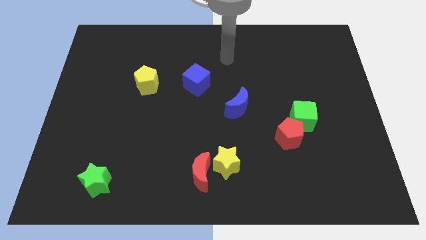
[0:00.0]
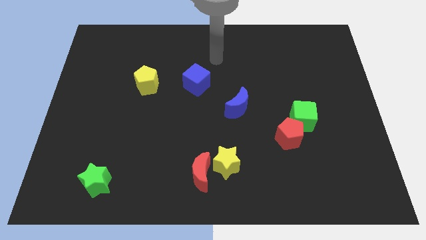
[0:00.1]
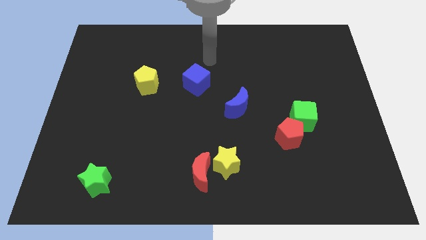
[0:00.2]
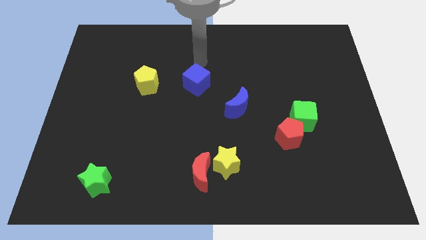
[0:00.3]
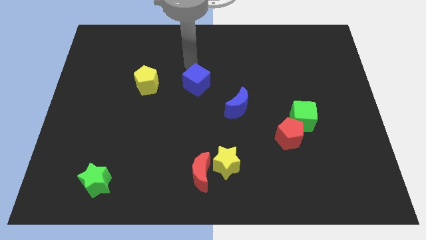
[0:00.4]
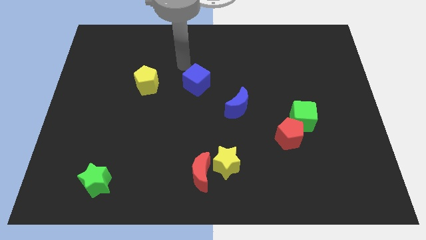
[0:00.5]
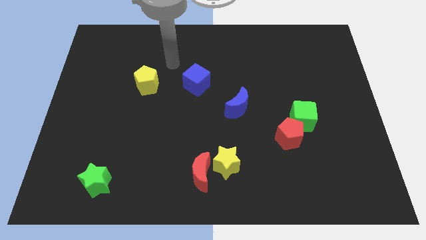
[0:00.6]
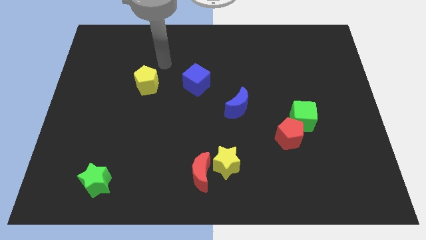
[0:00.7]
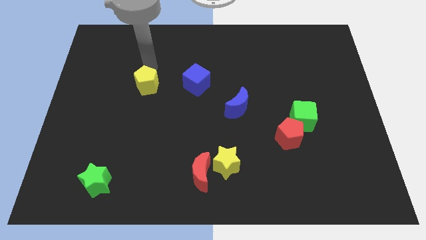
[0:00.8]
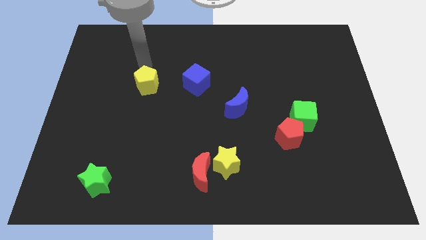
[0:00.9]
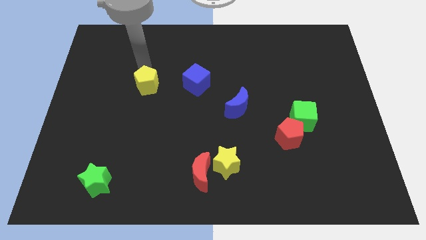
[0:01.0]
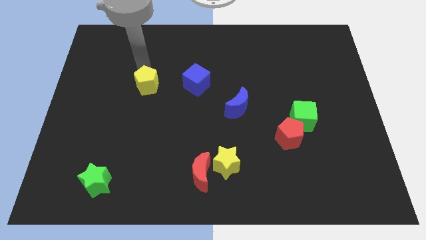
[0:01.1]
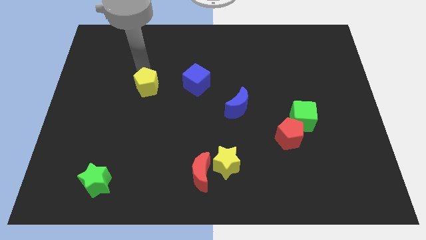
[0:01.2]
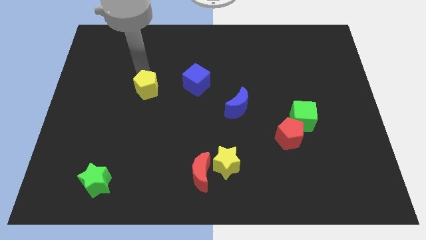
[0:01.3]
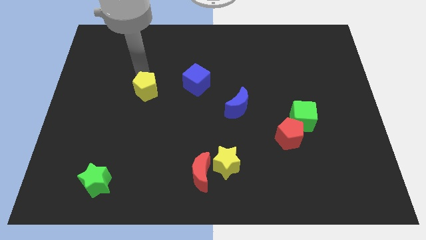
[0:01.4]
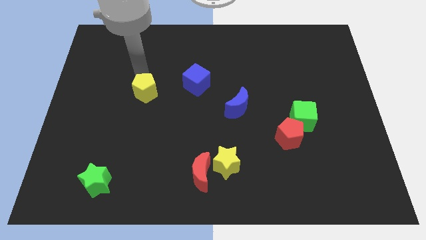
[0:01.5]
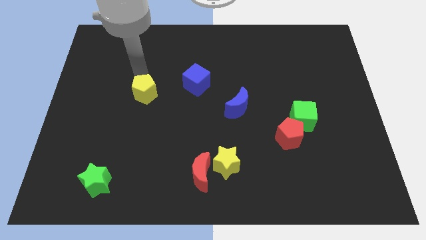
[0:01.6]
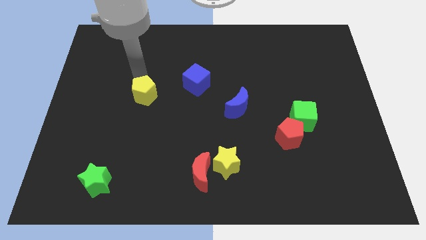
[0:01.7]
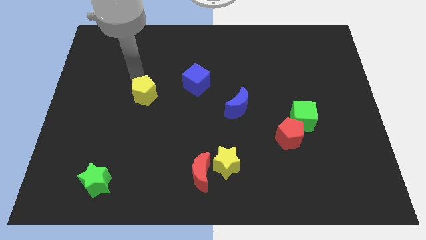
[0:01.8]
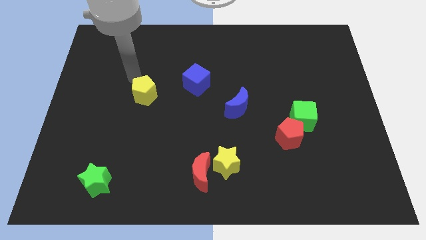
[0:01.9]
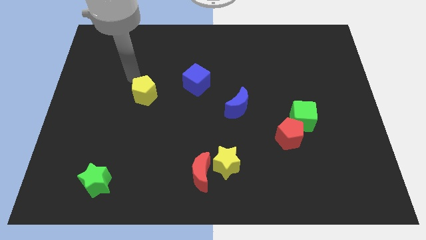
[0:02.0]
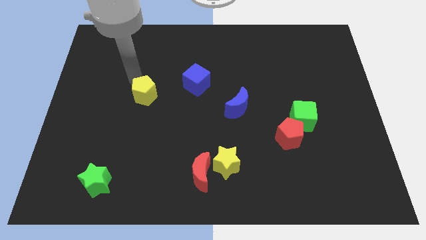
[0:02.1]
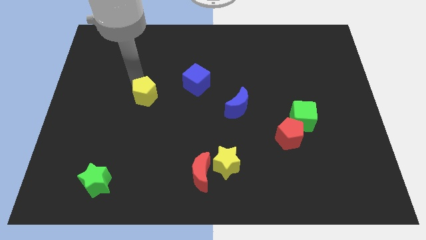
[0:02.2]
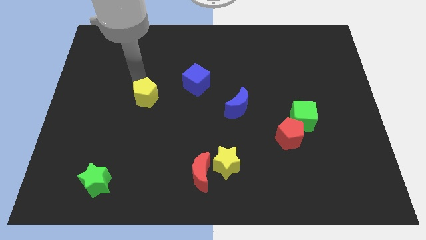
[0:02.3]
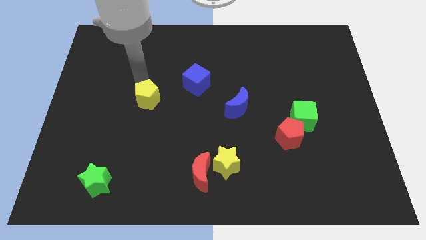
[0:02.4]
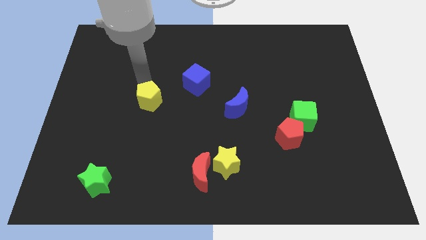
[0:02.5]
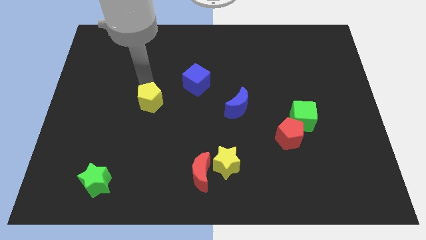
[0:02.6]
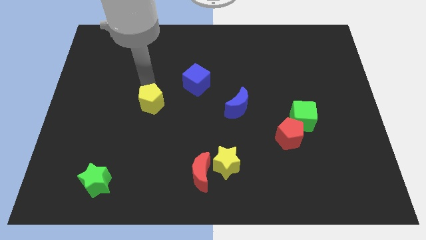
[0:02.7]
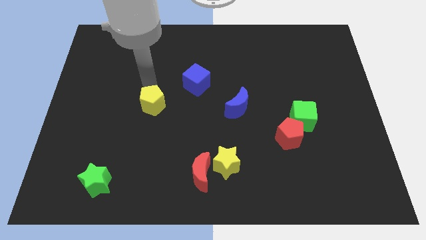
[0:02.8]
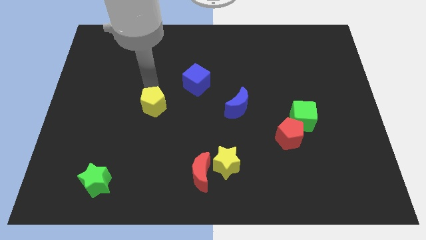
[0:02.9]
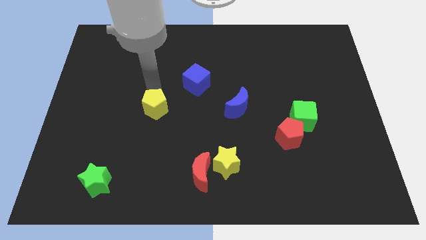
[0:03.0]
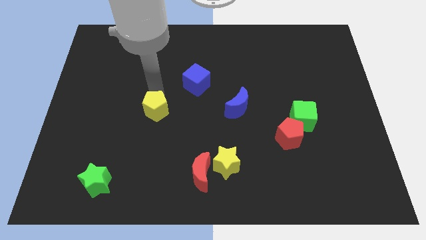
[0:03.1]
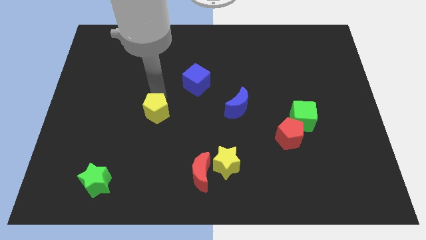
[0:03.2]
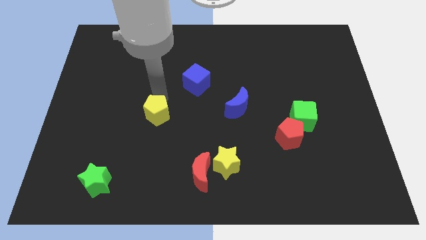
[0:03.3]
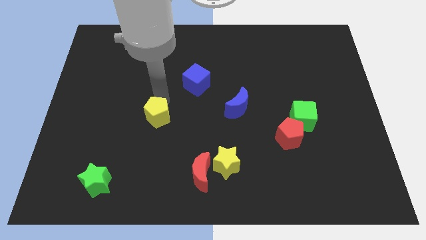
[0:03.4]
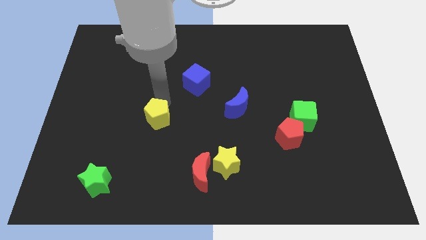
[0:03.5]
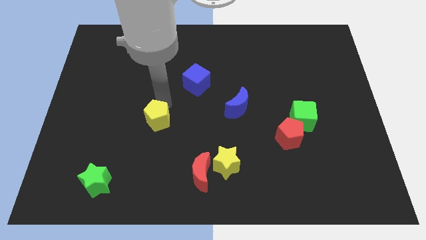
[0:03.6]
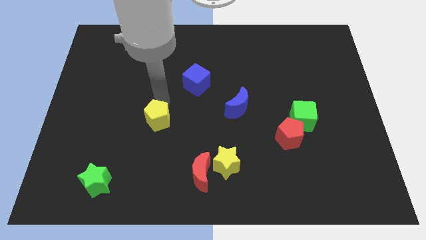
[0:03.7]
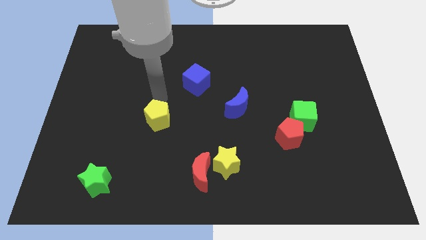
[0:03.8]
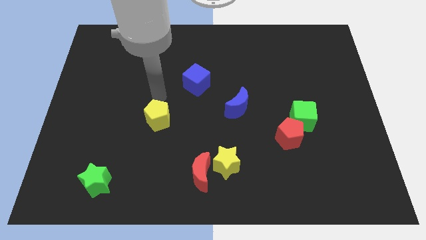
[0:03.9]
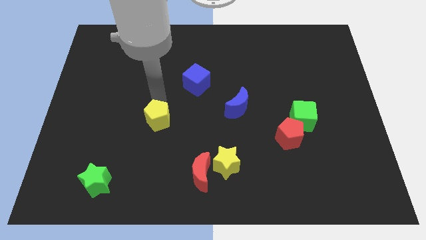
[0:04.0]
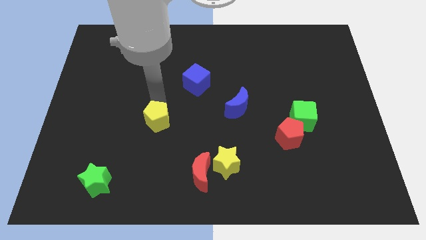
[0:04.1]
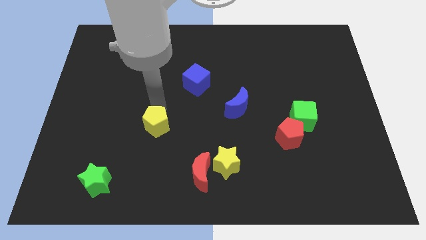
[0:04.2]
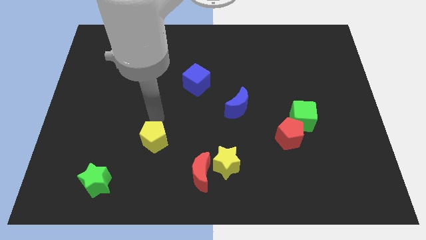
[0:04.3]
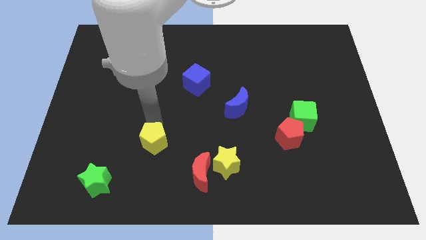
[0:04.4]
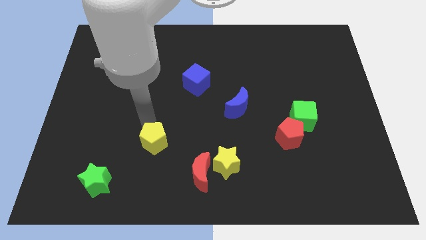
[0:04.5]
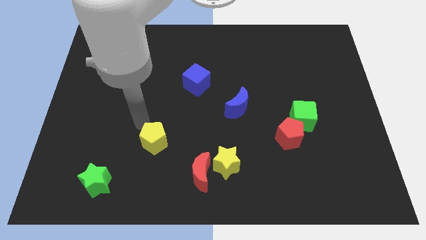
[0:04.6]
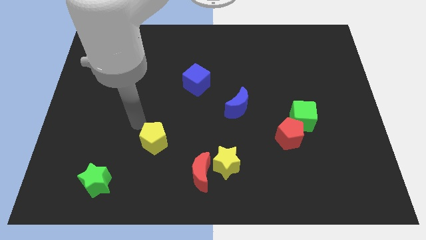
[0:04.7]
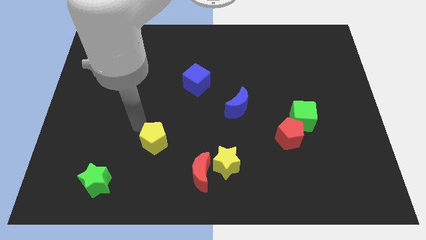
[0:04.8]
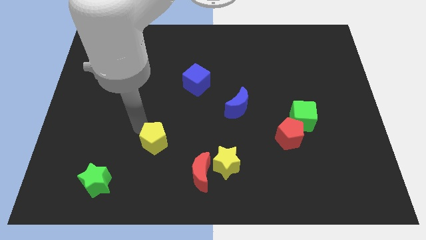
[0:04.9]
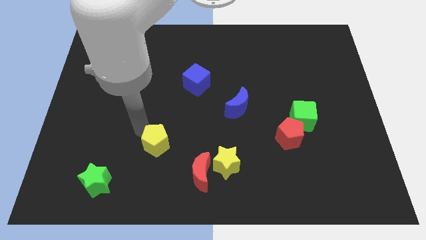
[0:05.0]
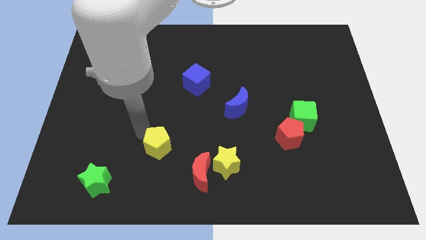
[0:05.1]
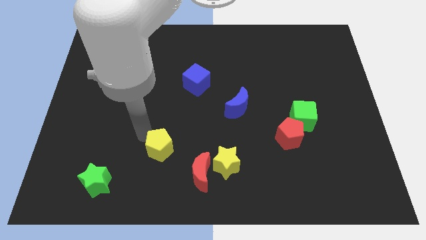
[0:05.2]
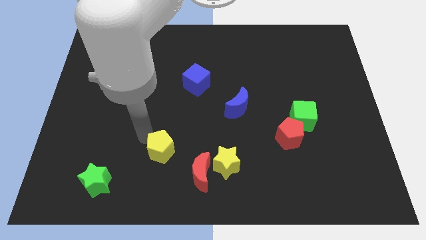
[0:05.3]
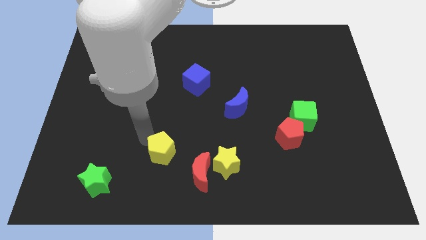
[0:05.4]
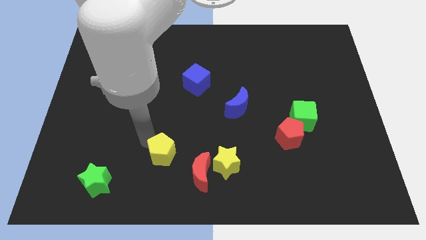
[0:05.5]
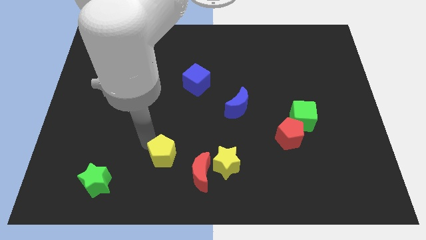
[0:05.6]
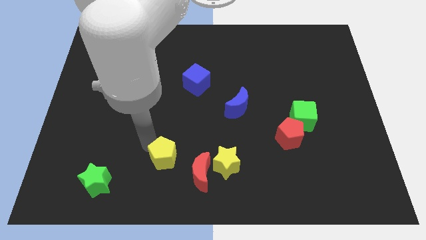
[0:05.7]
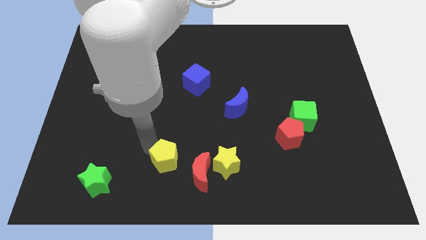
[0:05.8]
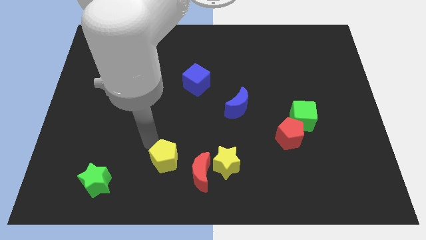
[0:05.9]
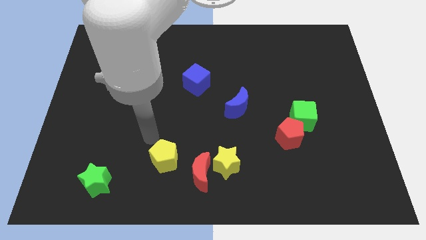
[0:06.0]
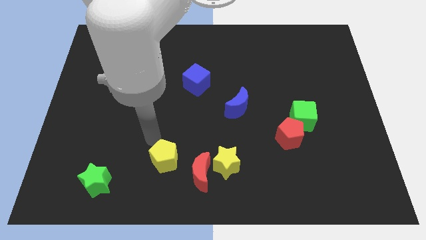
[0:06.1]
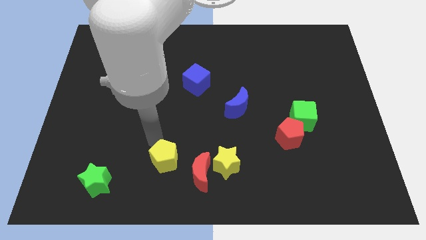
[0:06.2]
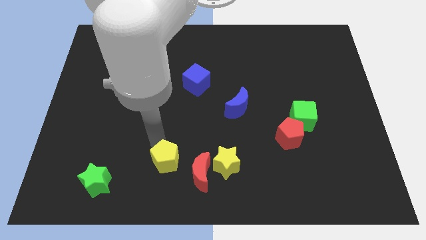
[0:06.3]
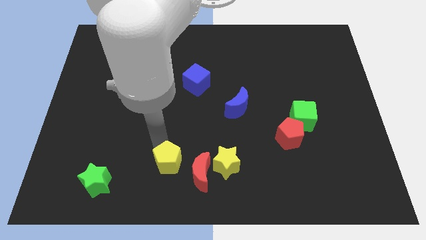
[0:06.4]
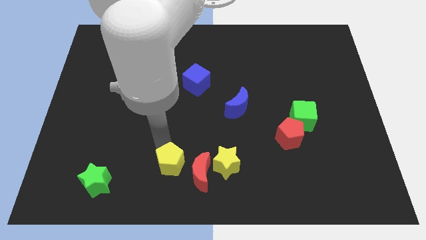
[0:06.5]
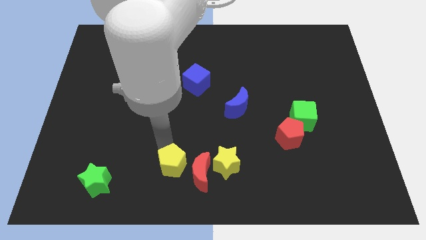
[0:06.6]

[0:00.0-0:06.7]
move the yellow pentagon to the bottom side

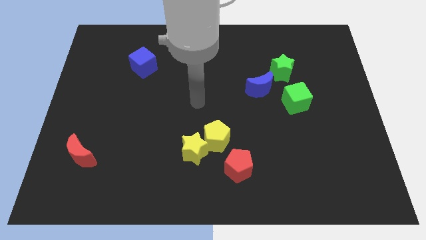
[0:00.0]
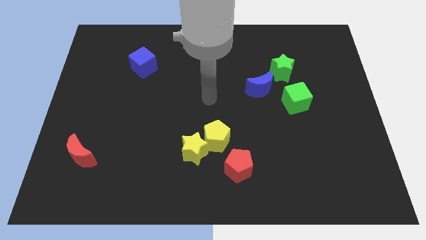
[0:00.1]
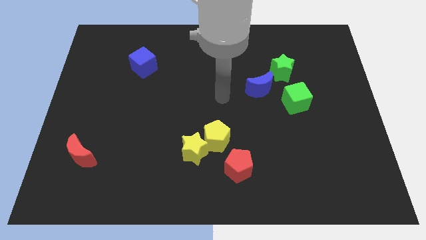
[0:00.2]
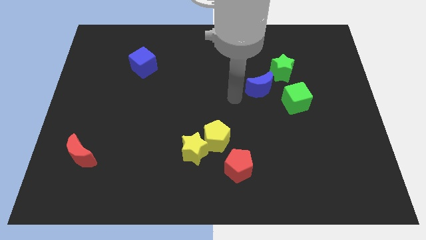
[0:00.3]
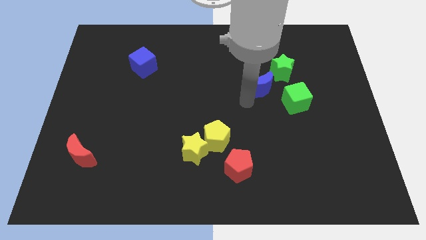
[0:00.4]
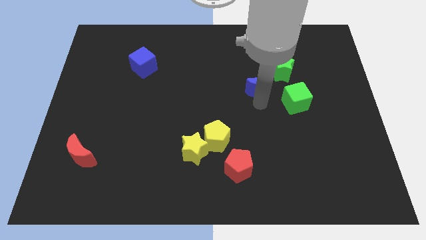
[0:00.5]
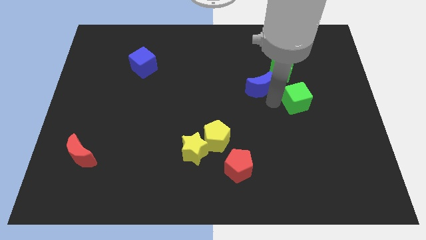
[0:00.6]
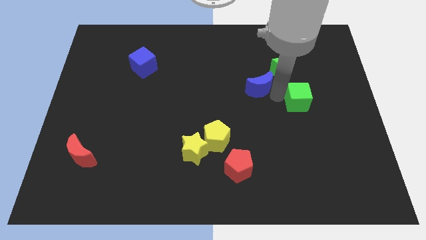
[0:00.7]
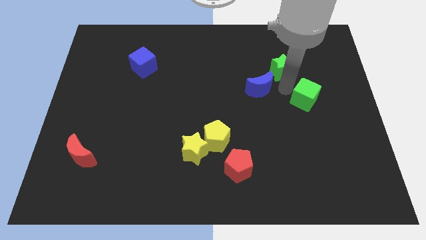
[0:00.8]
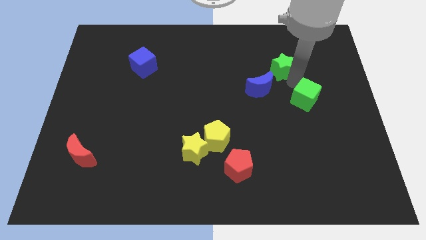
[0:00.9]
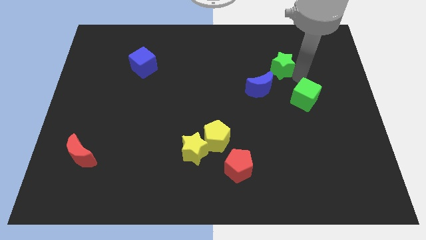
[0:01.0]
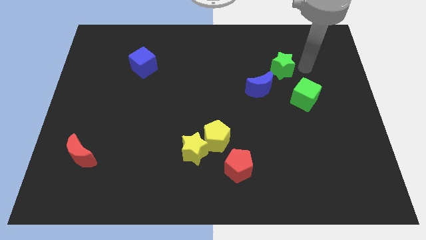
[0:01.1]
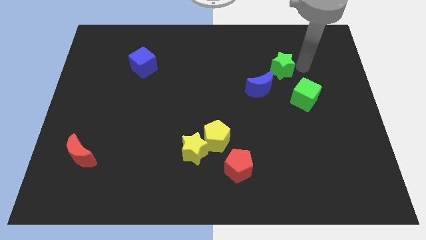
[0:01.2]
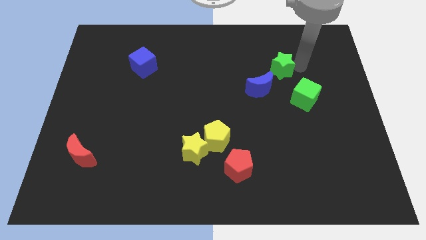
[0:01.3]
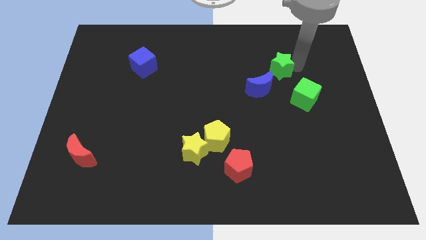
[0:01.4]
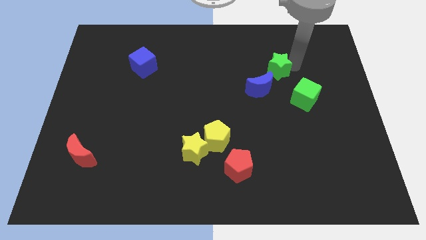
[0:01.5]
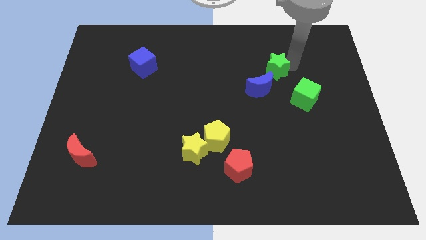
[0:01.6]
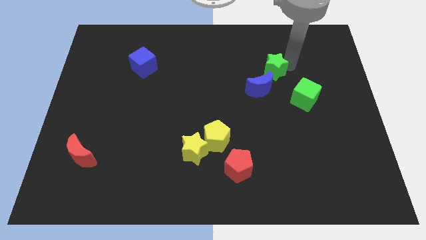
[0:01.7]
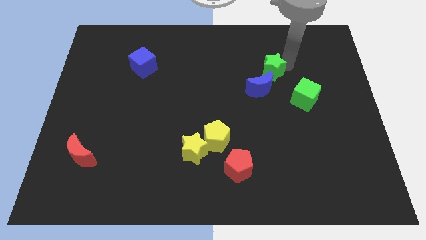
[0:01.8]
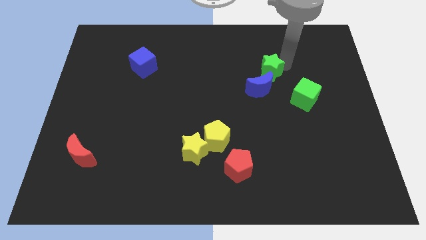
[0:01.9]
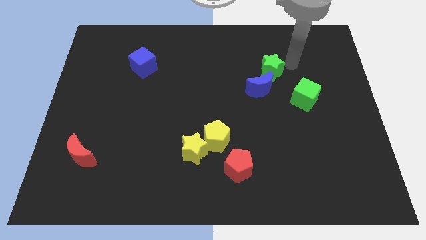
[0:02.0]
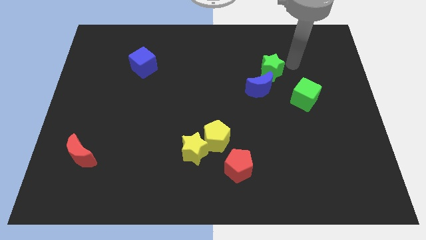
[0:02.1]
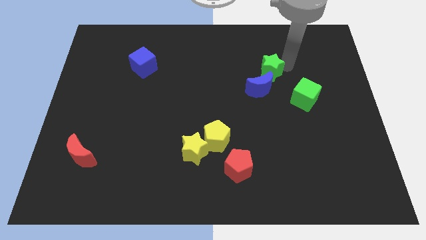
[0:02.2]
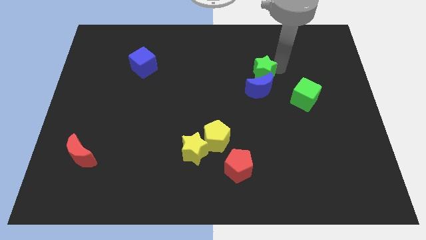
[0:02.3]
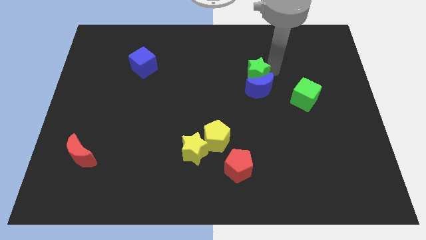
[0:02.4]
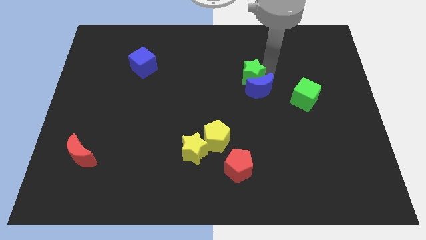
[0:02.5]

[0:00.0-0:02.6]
put the green star to the center of the board
